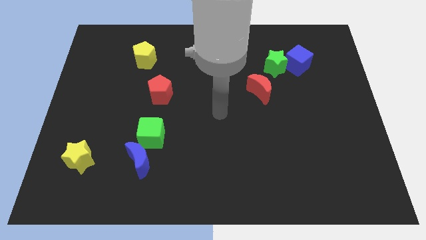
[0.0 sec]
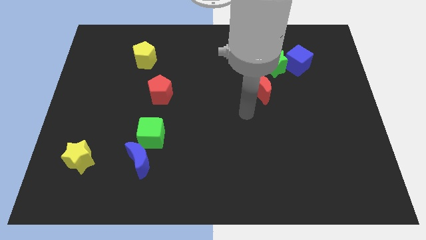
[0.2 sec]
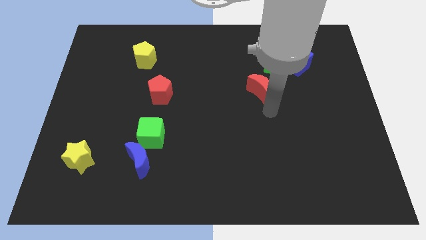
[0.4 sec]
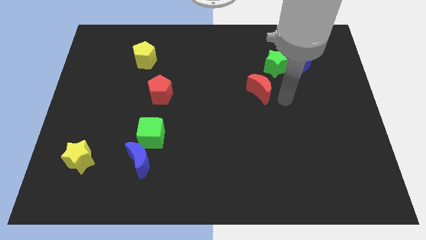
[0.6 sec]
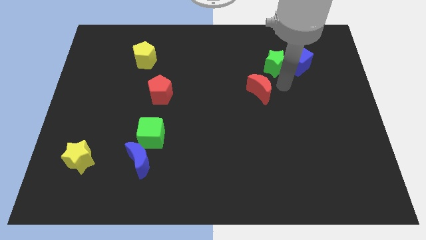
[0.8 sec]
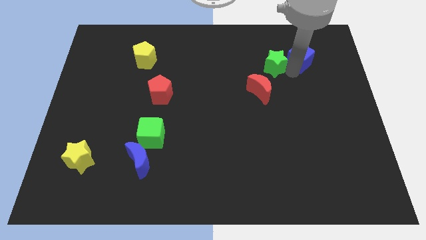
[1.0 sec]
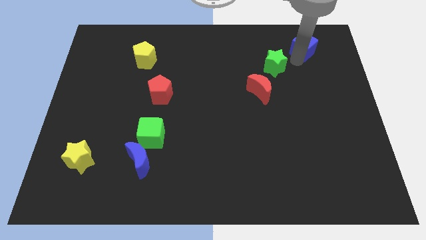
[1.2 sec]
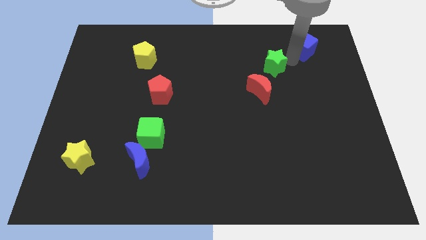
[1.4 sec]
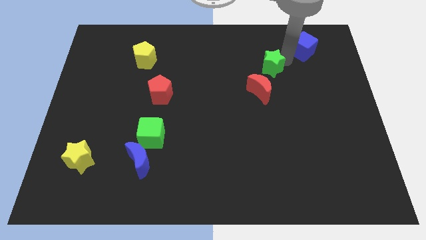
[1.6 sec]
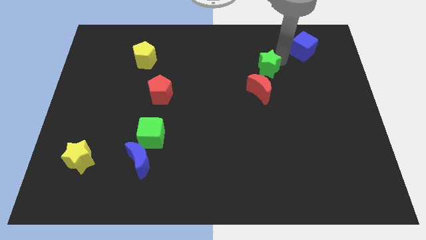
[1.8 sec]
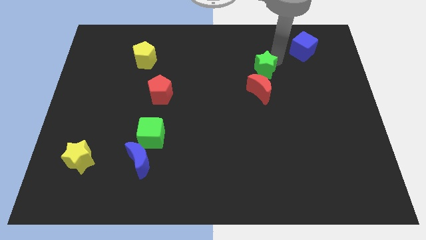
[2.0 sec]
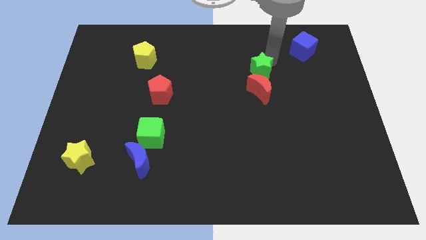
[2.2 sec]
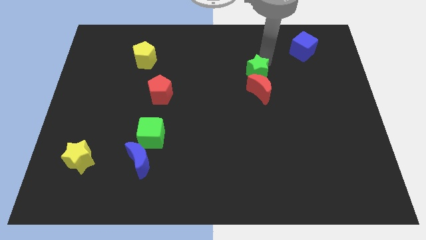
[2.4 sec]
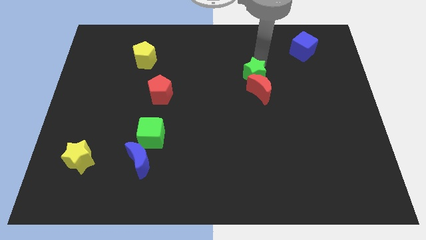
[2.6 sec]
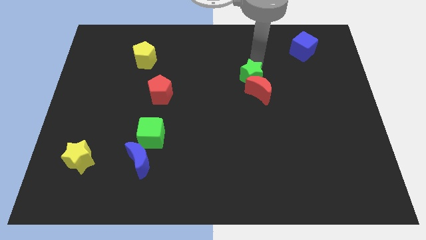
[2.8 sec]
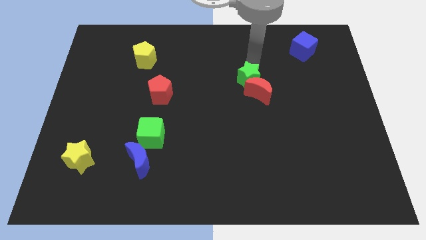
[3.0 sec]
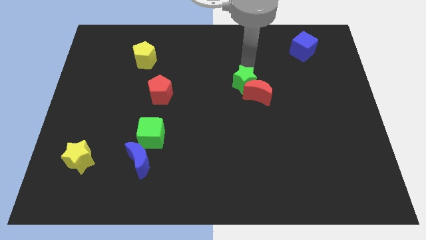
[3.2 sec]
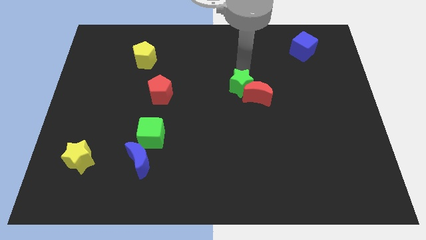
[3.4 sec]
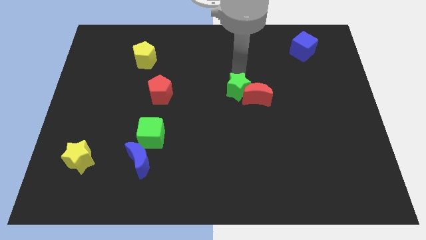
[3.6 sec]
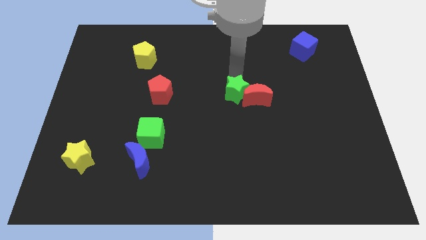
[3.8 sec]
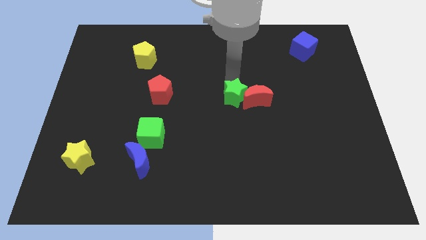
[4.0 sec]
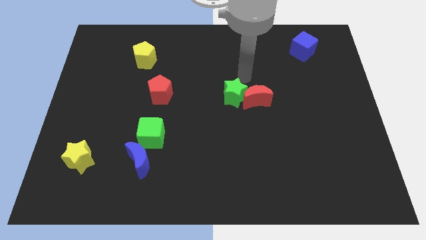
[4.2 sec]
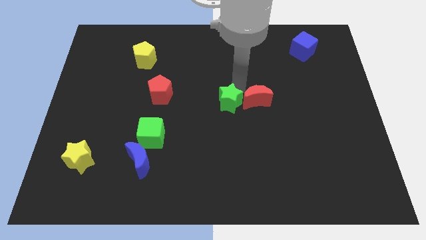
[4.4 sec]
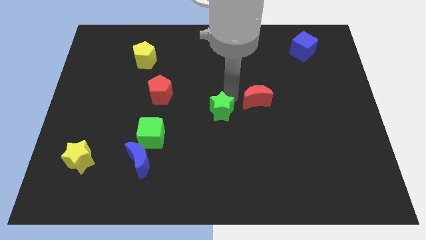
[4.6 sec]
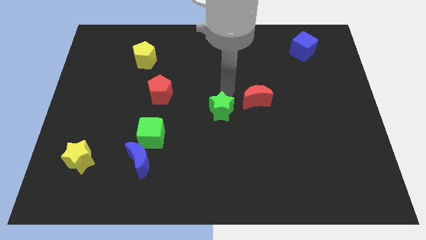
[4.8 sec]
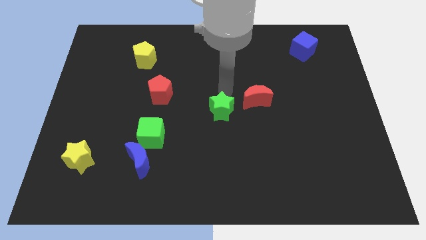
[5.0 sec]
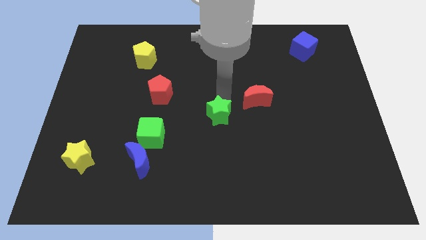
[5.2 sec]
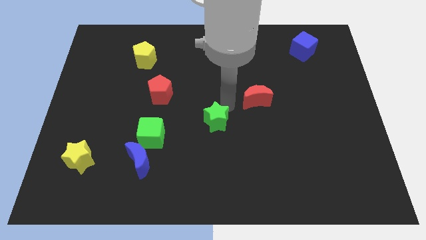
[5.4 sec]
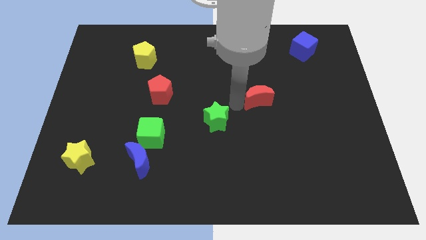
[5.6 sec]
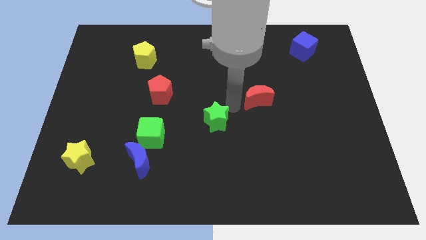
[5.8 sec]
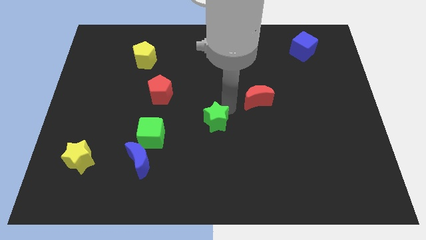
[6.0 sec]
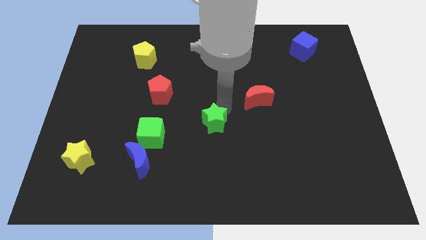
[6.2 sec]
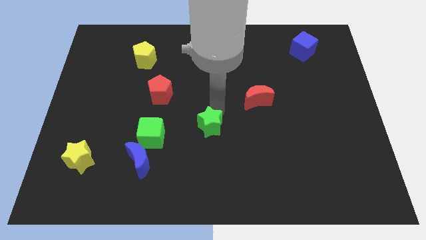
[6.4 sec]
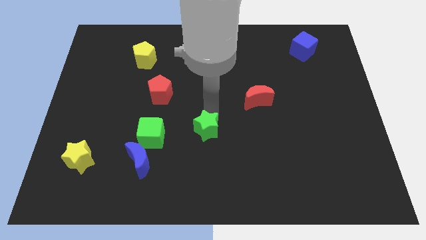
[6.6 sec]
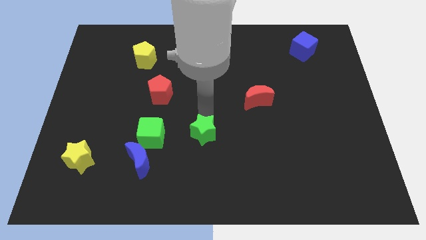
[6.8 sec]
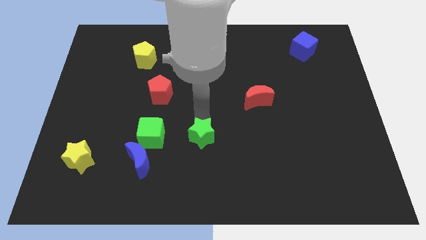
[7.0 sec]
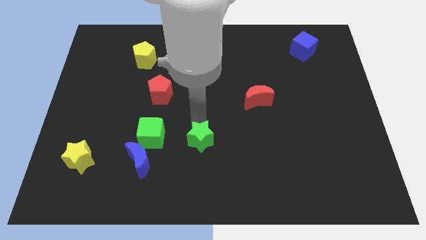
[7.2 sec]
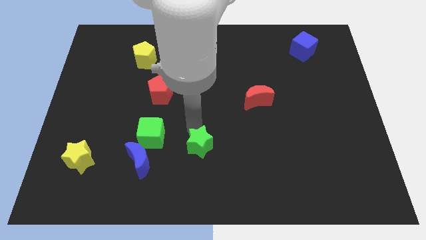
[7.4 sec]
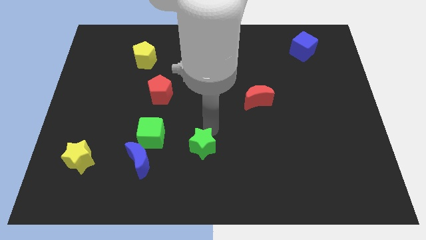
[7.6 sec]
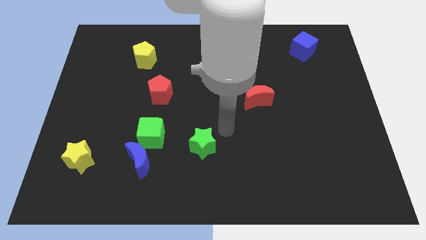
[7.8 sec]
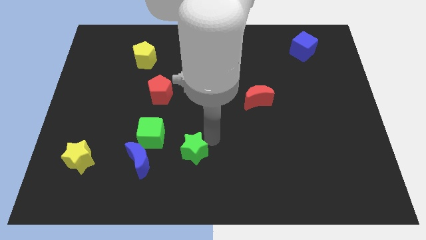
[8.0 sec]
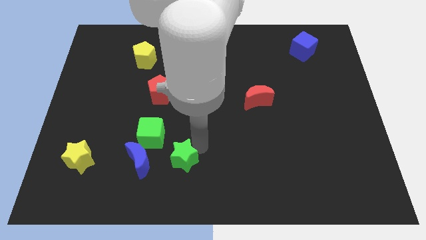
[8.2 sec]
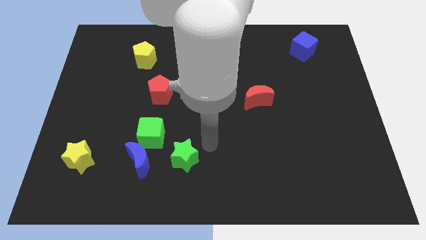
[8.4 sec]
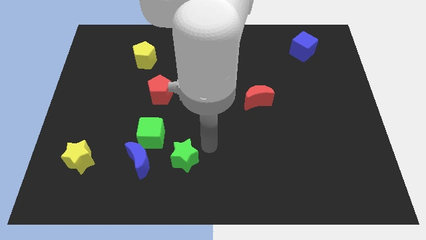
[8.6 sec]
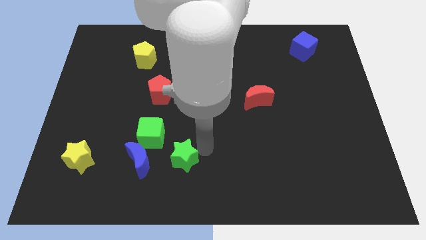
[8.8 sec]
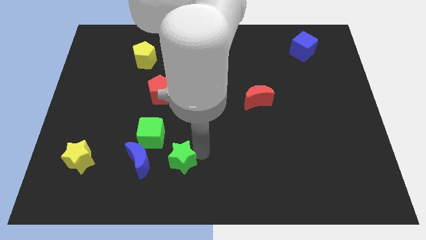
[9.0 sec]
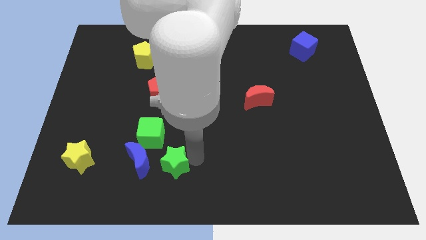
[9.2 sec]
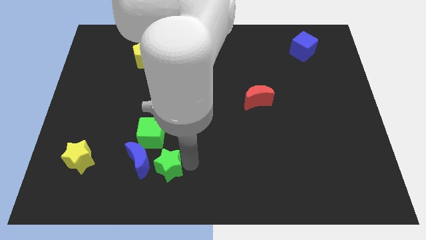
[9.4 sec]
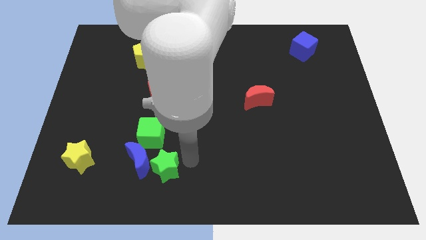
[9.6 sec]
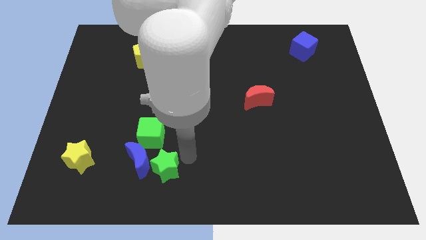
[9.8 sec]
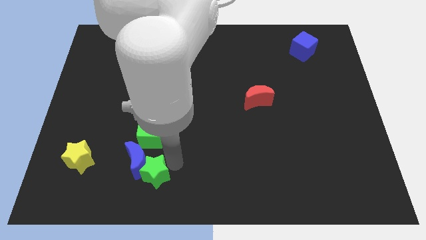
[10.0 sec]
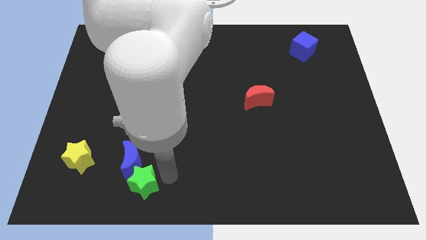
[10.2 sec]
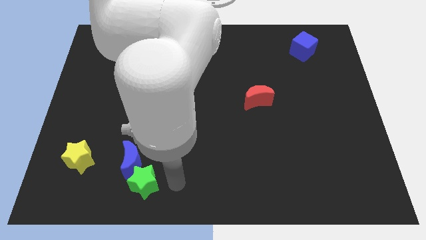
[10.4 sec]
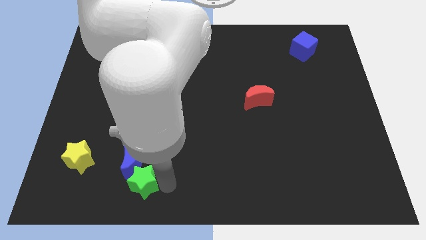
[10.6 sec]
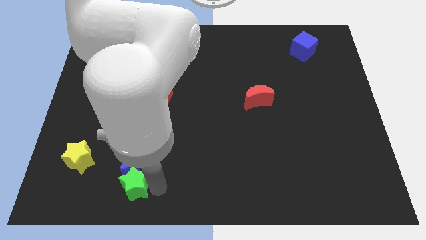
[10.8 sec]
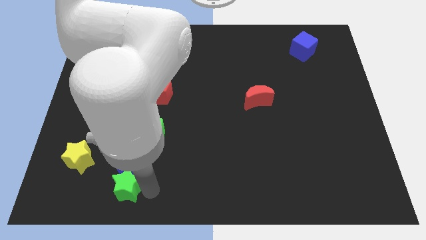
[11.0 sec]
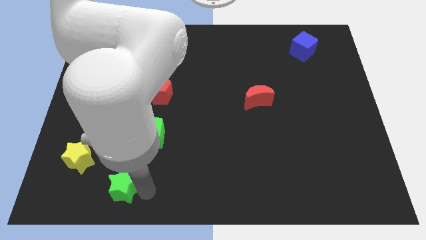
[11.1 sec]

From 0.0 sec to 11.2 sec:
push the green star diagonally down and to the right of the yellow star

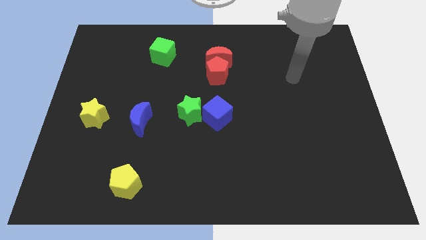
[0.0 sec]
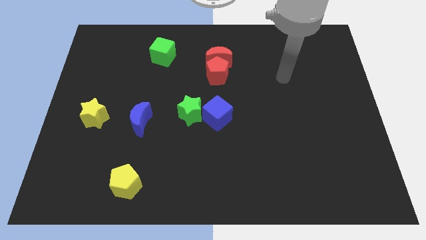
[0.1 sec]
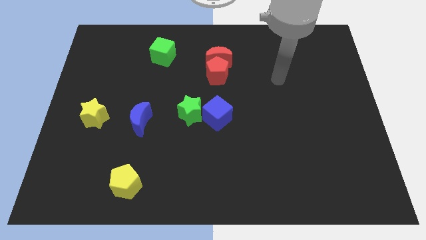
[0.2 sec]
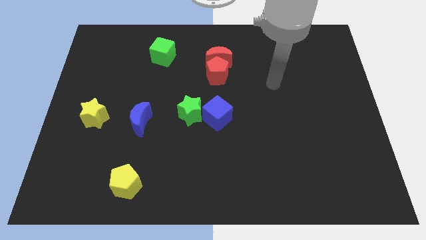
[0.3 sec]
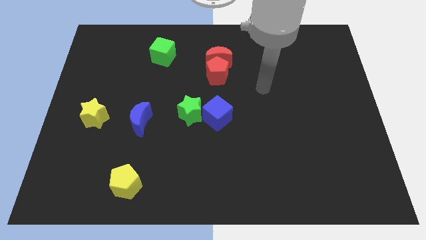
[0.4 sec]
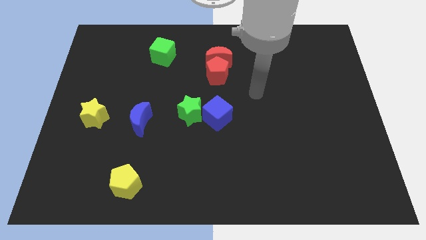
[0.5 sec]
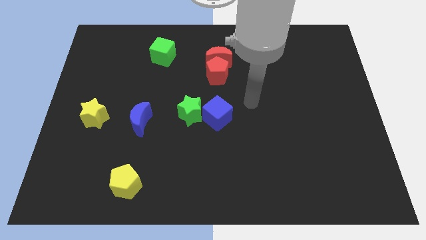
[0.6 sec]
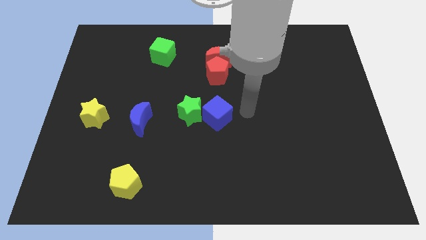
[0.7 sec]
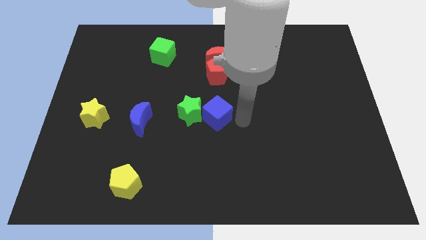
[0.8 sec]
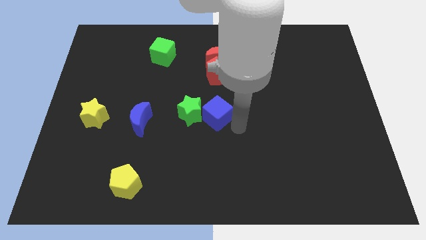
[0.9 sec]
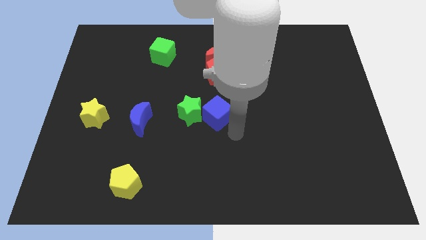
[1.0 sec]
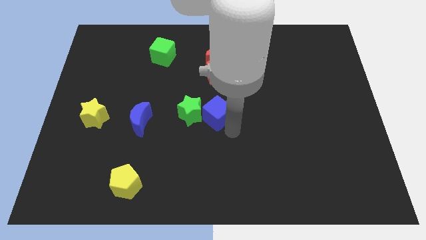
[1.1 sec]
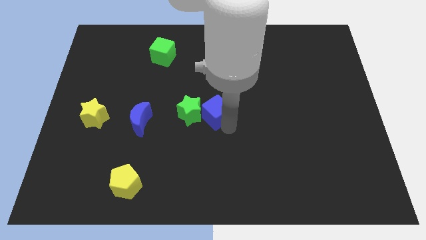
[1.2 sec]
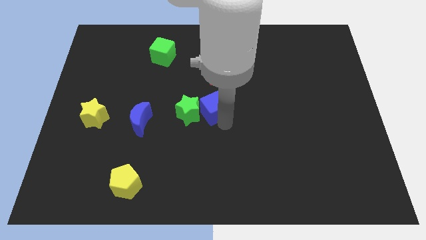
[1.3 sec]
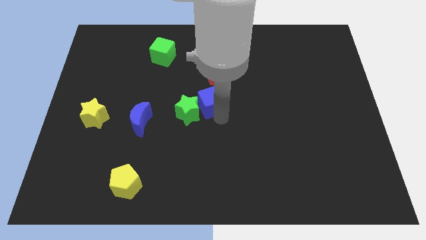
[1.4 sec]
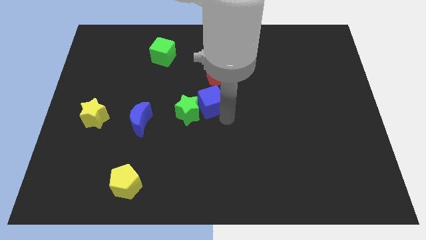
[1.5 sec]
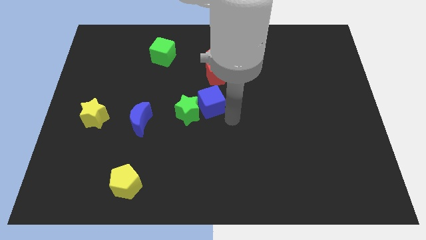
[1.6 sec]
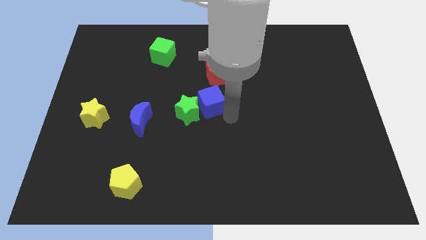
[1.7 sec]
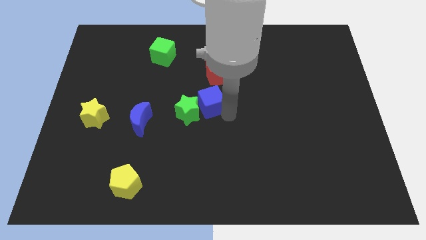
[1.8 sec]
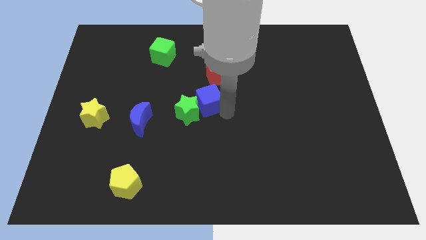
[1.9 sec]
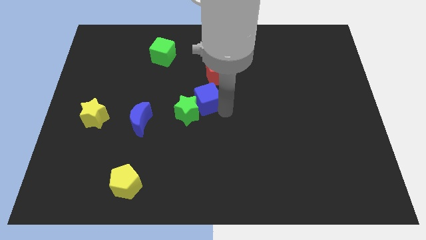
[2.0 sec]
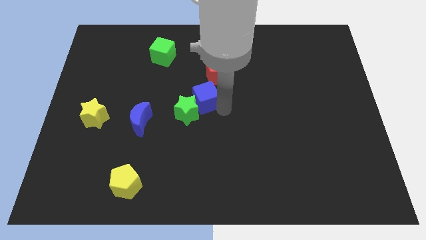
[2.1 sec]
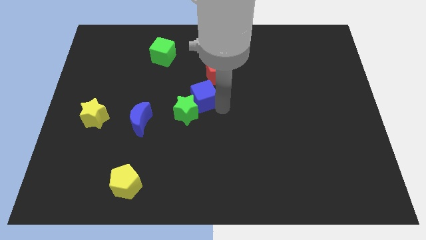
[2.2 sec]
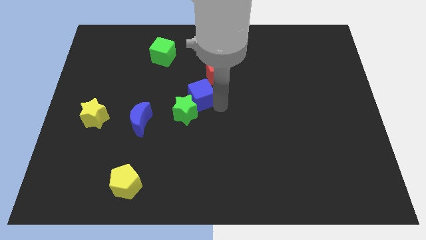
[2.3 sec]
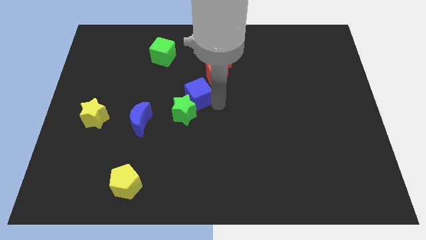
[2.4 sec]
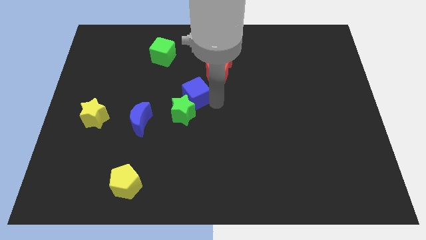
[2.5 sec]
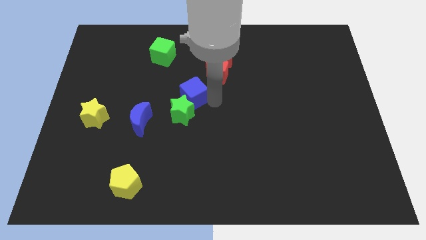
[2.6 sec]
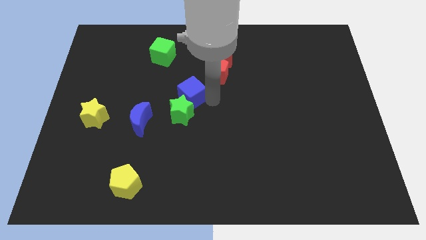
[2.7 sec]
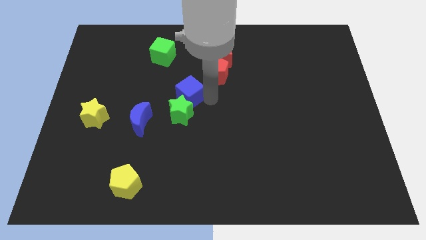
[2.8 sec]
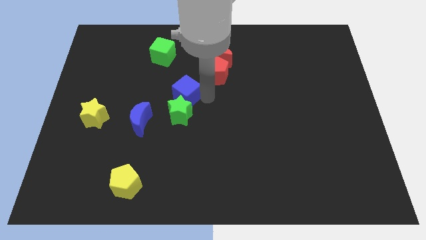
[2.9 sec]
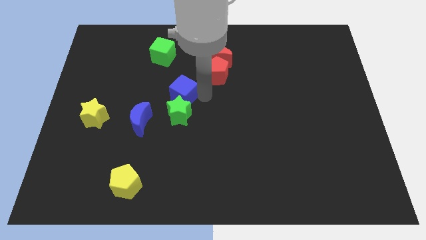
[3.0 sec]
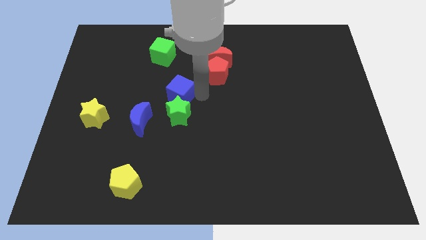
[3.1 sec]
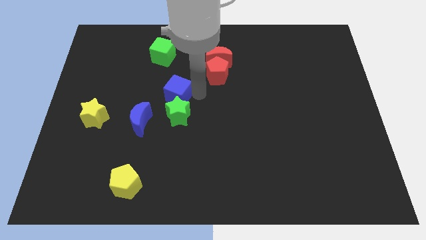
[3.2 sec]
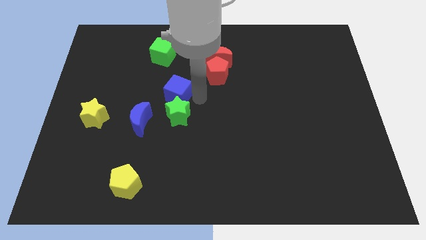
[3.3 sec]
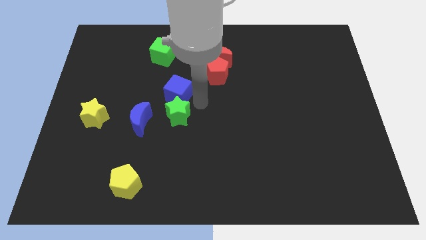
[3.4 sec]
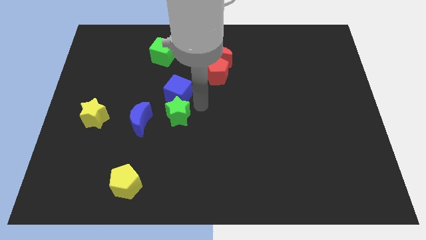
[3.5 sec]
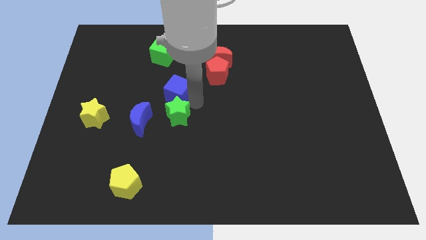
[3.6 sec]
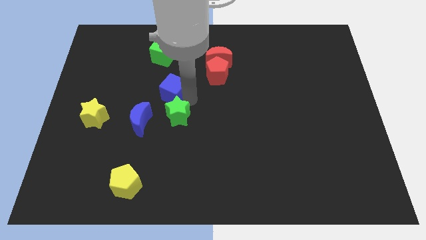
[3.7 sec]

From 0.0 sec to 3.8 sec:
slide the blue cube below the green cube
